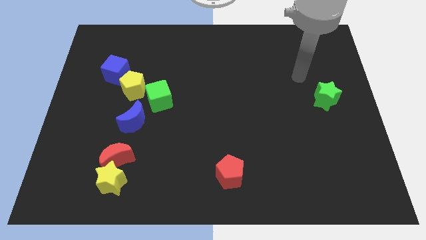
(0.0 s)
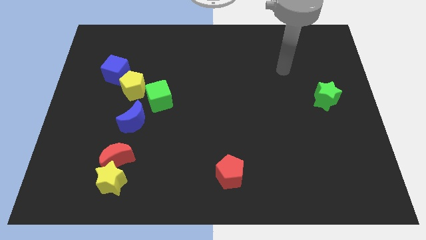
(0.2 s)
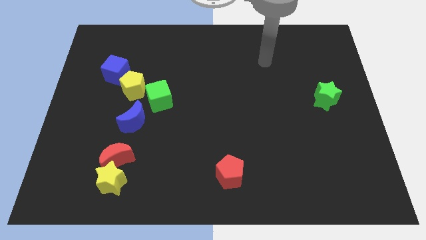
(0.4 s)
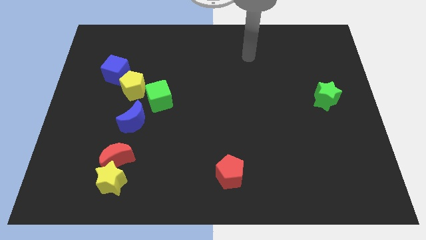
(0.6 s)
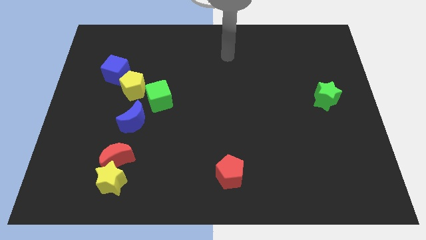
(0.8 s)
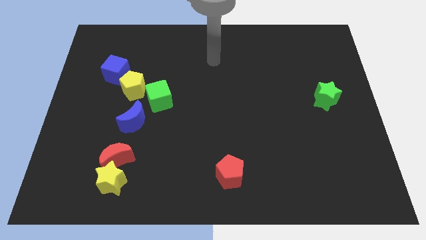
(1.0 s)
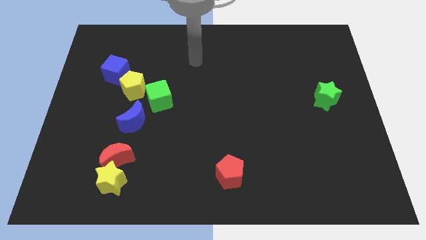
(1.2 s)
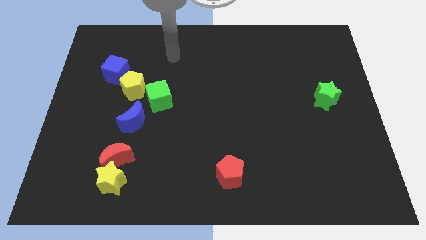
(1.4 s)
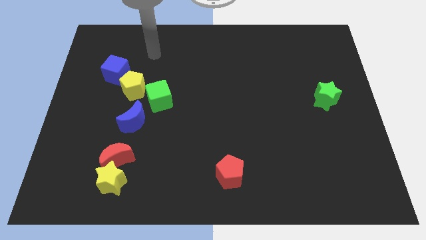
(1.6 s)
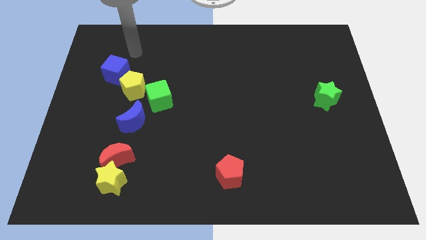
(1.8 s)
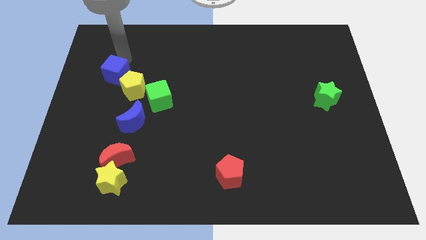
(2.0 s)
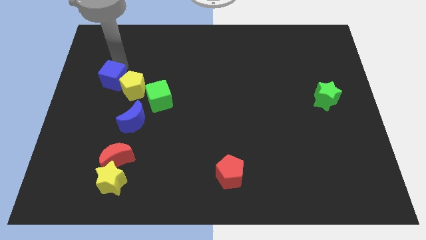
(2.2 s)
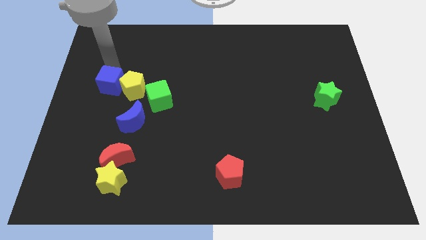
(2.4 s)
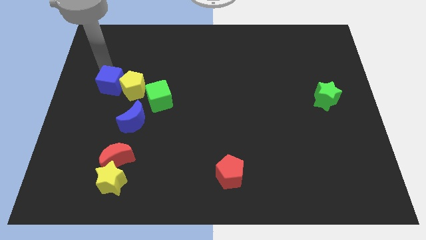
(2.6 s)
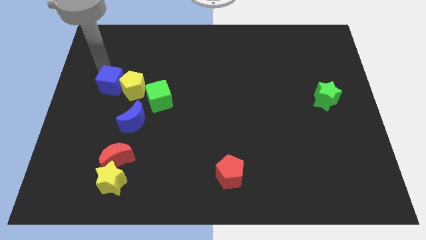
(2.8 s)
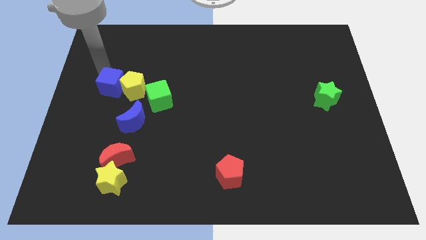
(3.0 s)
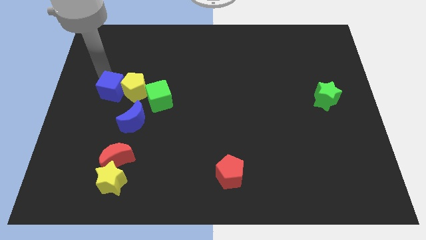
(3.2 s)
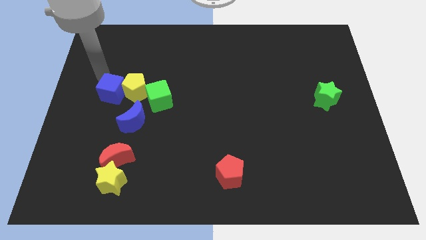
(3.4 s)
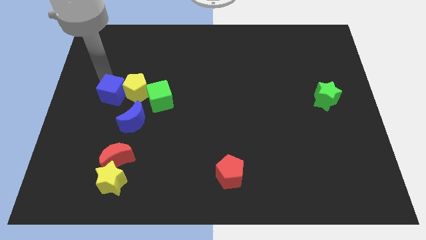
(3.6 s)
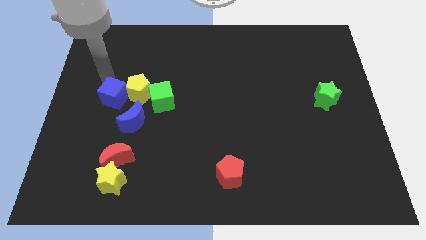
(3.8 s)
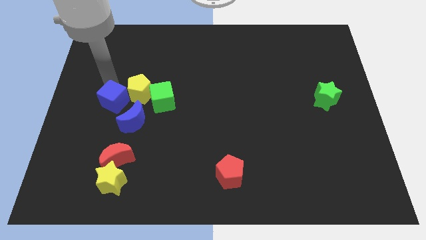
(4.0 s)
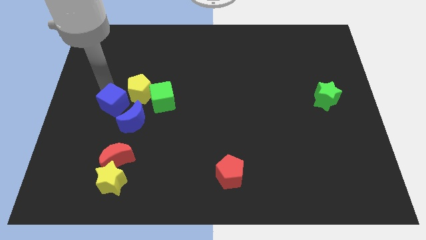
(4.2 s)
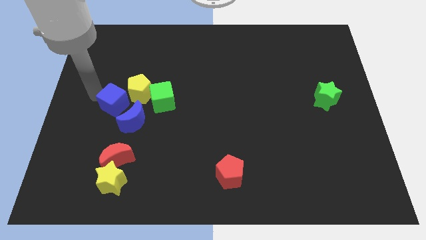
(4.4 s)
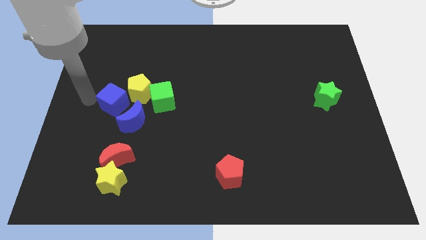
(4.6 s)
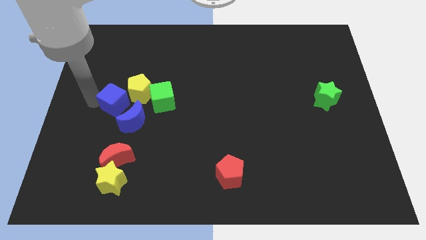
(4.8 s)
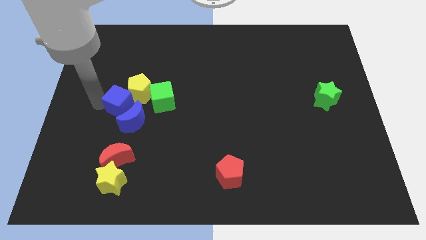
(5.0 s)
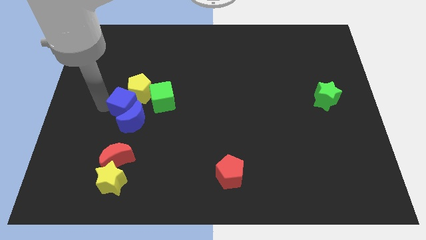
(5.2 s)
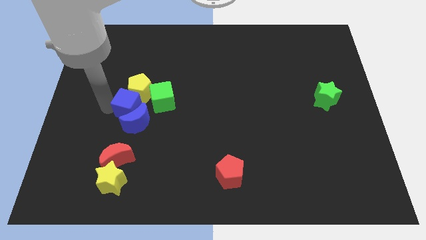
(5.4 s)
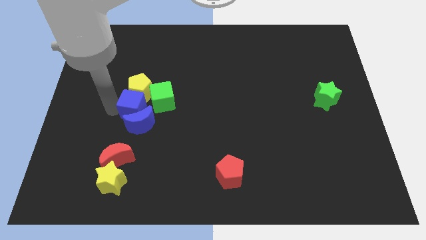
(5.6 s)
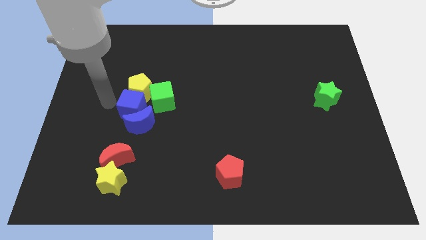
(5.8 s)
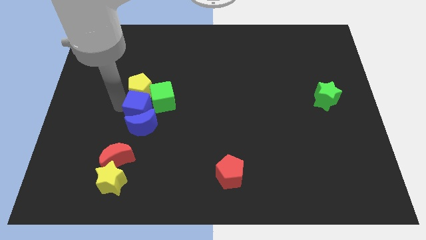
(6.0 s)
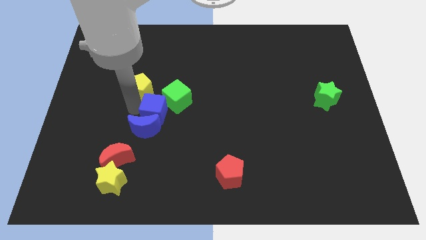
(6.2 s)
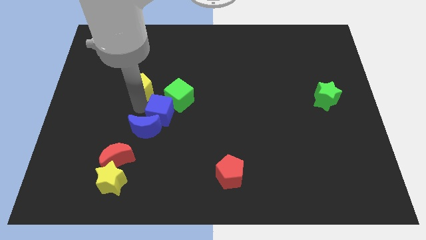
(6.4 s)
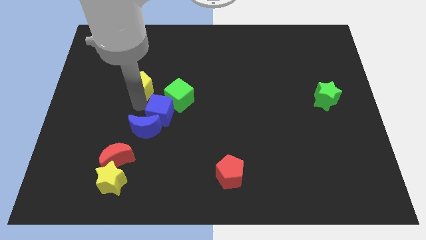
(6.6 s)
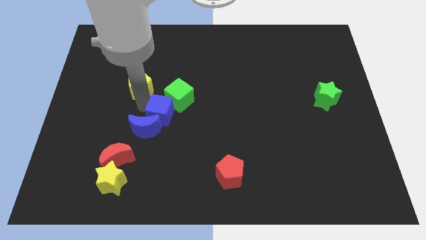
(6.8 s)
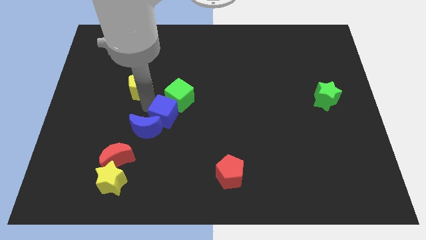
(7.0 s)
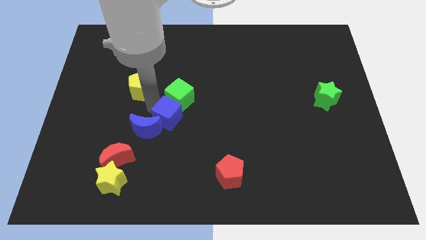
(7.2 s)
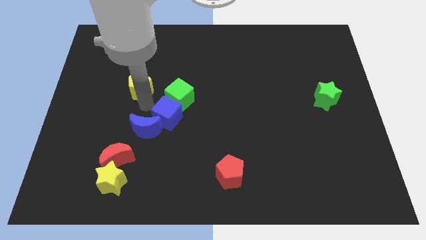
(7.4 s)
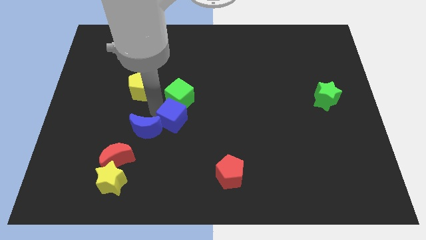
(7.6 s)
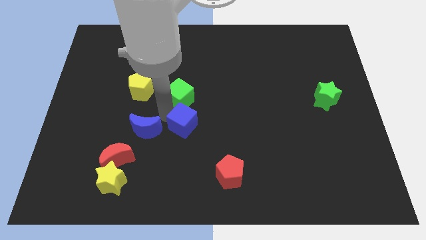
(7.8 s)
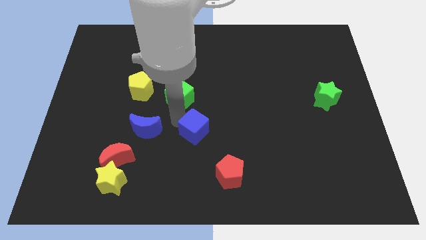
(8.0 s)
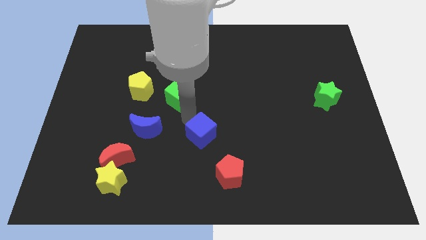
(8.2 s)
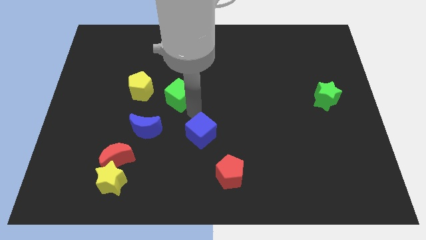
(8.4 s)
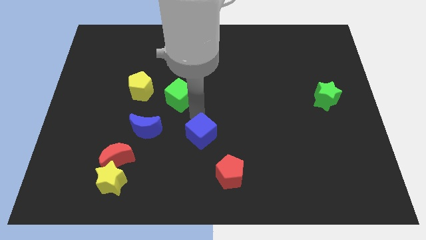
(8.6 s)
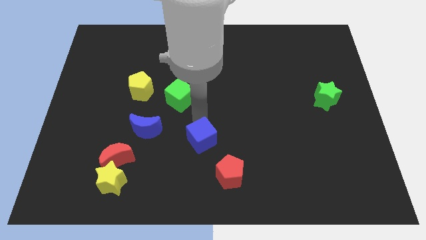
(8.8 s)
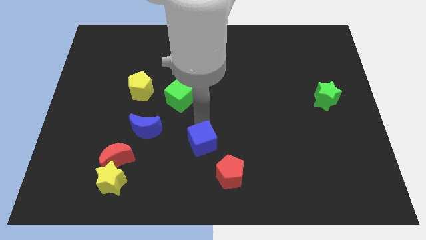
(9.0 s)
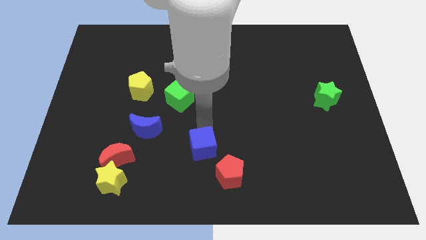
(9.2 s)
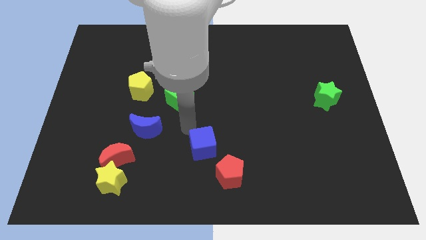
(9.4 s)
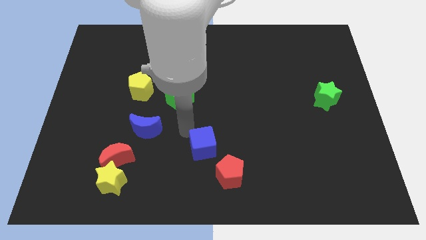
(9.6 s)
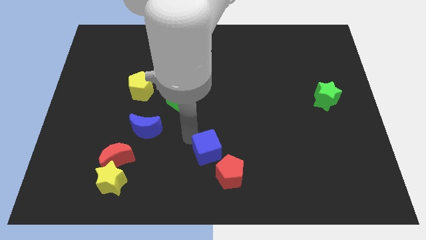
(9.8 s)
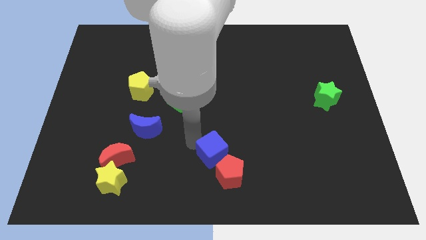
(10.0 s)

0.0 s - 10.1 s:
push the blue cube to the red pentagon

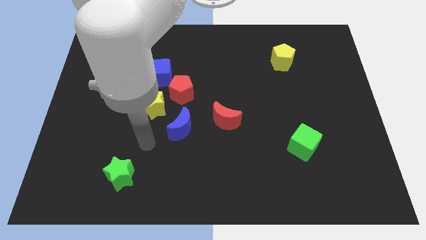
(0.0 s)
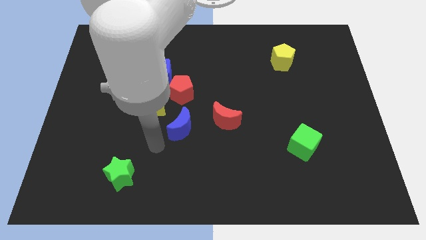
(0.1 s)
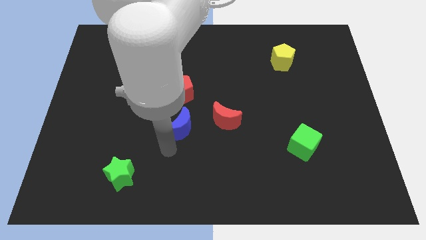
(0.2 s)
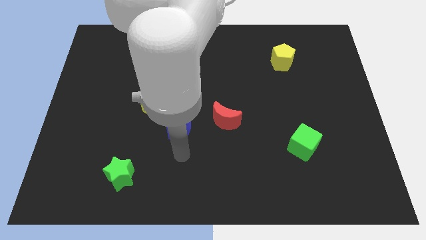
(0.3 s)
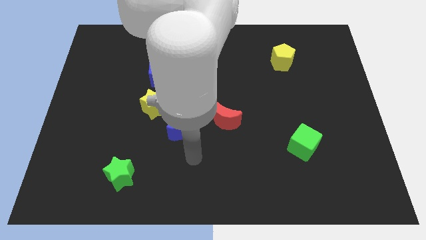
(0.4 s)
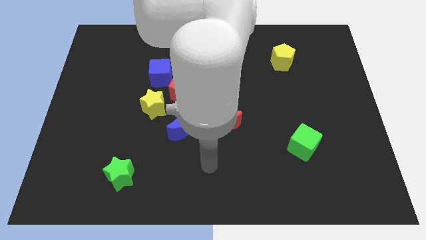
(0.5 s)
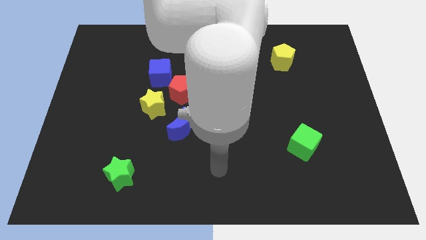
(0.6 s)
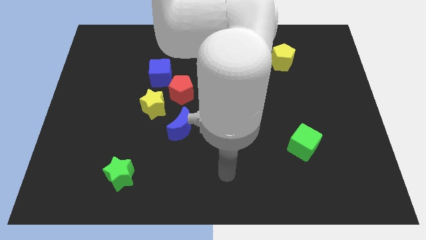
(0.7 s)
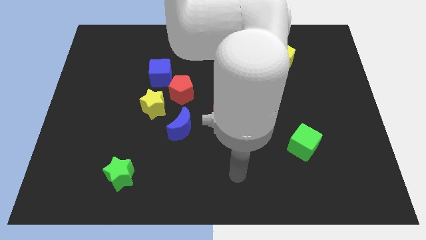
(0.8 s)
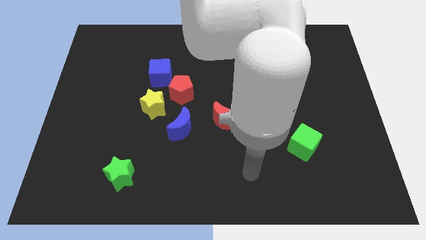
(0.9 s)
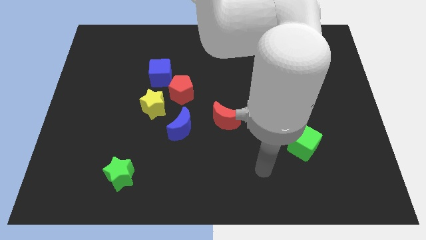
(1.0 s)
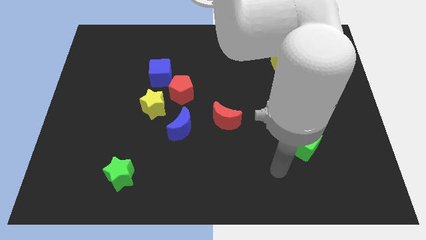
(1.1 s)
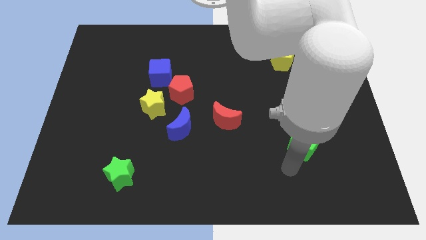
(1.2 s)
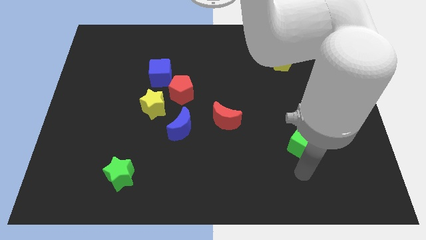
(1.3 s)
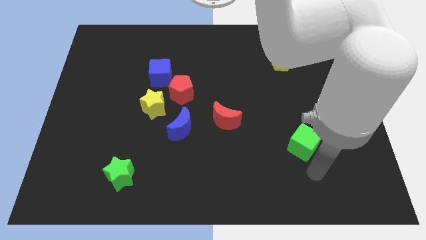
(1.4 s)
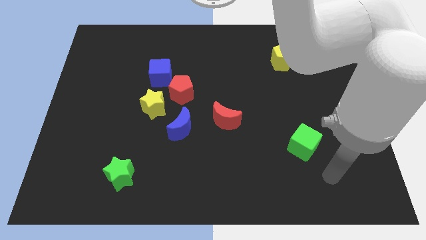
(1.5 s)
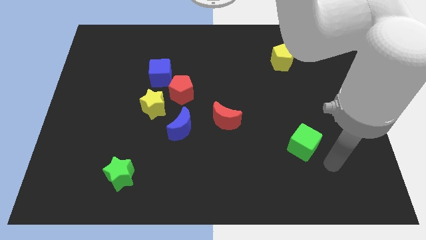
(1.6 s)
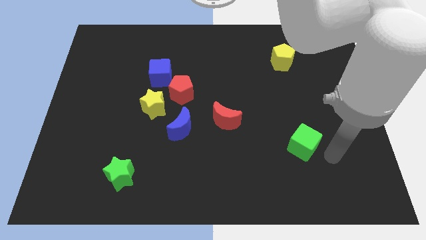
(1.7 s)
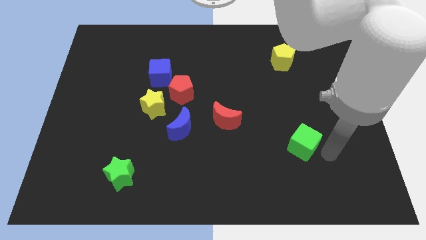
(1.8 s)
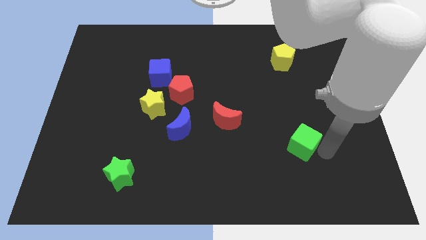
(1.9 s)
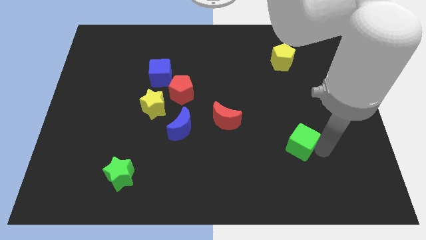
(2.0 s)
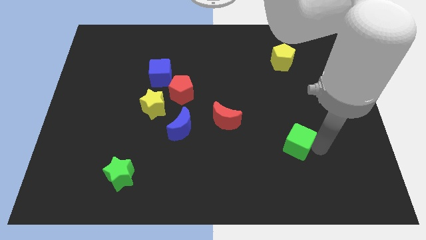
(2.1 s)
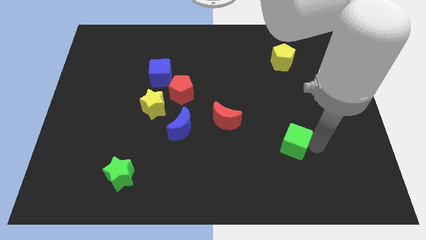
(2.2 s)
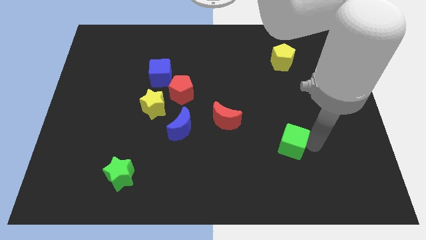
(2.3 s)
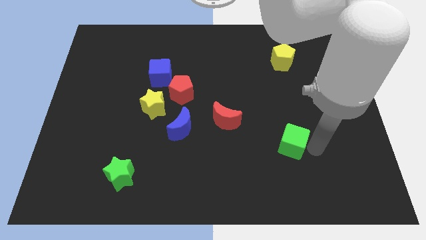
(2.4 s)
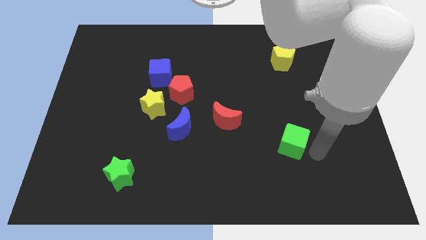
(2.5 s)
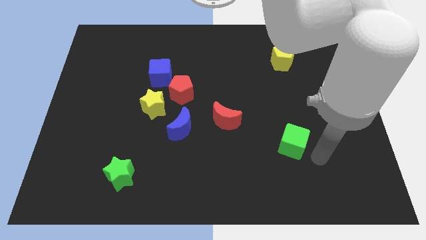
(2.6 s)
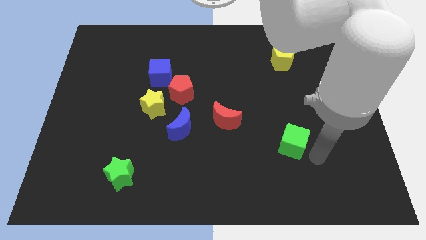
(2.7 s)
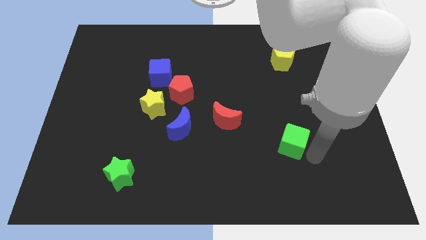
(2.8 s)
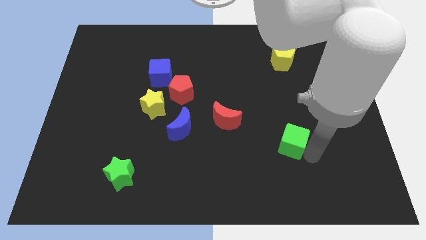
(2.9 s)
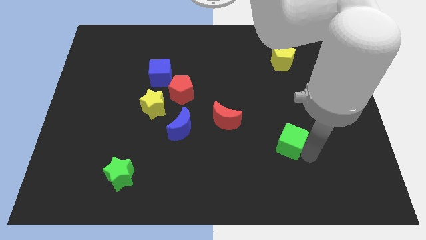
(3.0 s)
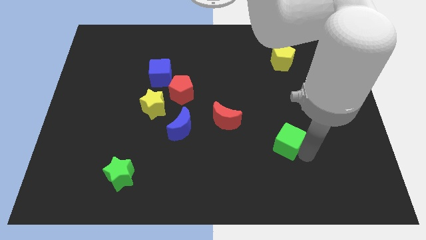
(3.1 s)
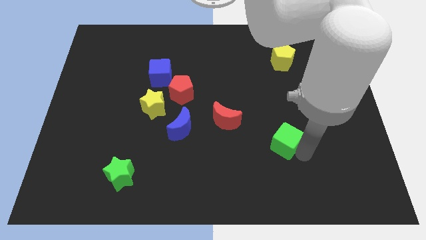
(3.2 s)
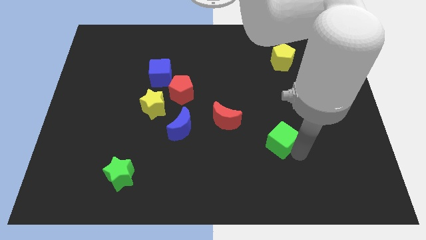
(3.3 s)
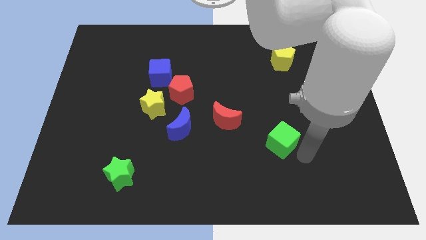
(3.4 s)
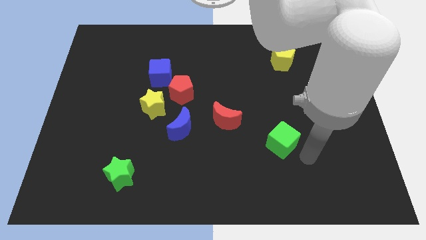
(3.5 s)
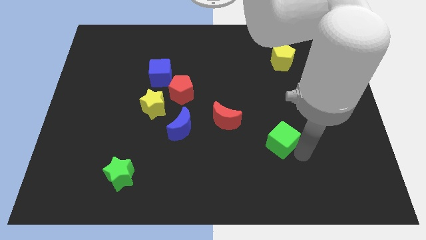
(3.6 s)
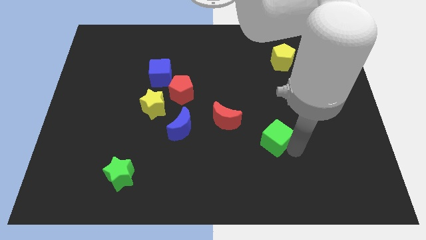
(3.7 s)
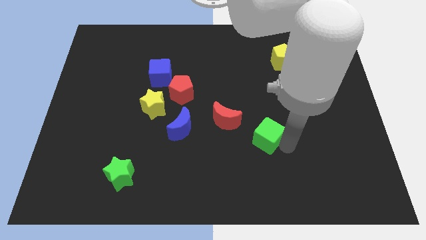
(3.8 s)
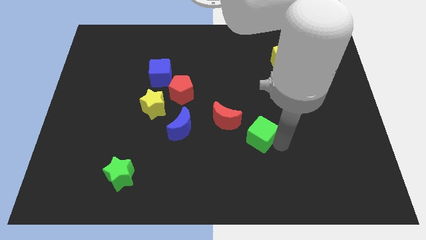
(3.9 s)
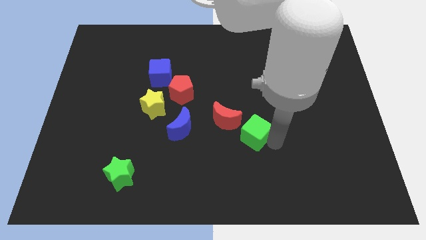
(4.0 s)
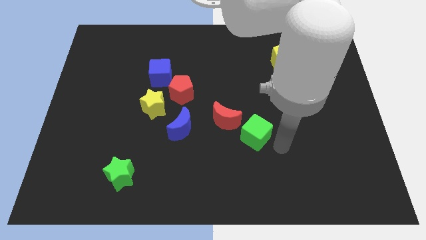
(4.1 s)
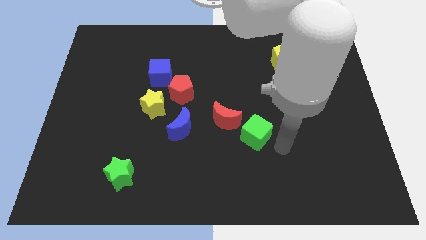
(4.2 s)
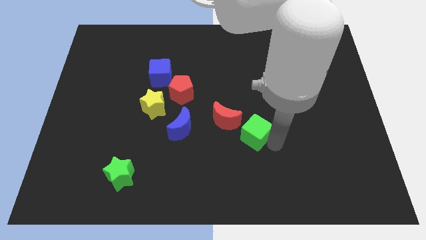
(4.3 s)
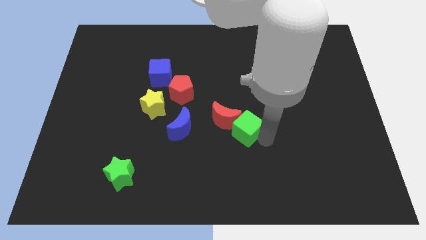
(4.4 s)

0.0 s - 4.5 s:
put the green cube to the red moon
